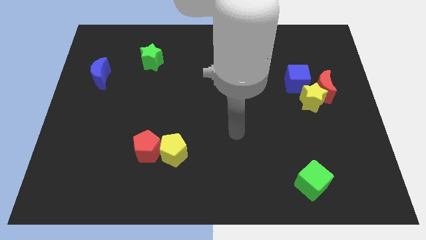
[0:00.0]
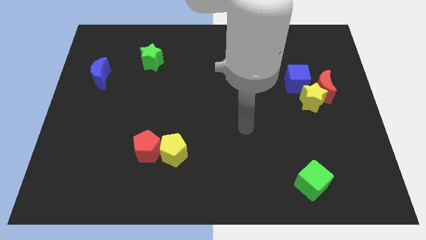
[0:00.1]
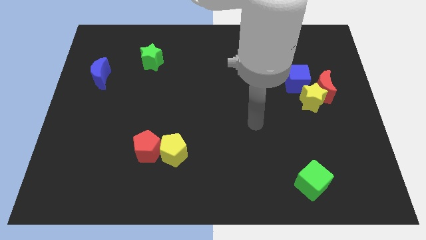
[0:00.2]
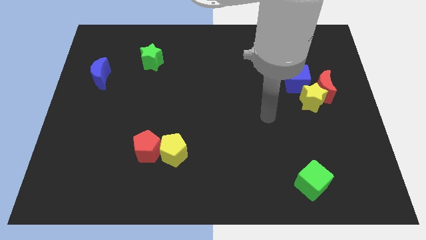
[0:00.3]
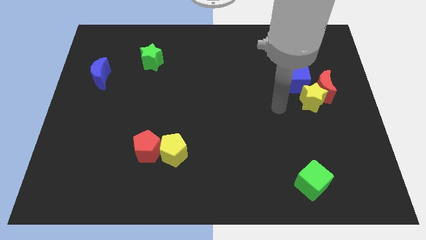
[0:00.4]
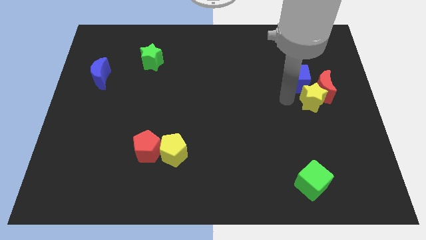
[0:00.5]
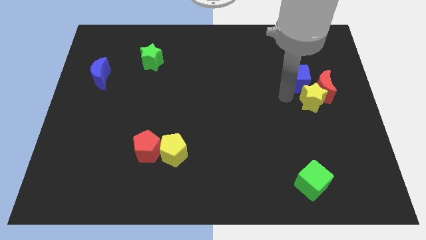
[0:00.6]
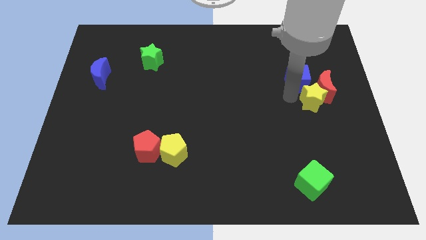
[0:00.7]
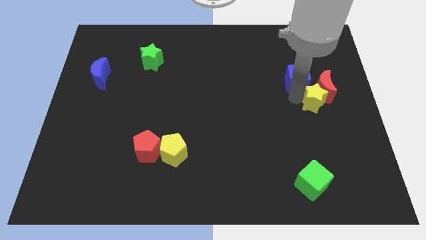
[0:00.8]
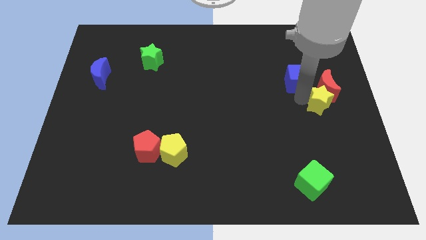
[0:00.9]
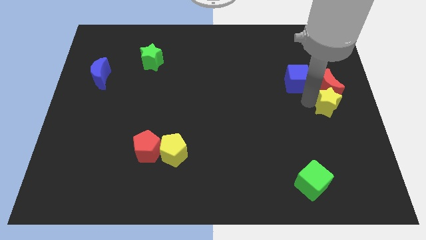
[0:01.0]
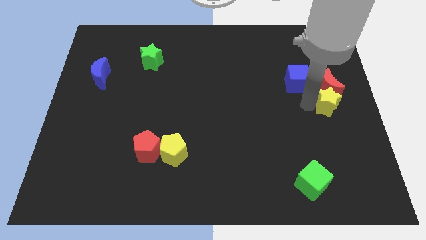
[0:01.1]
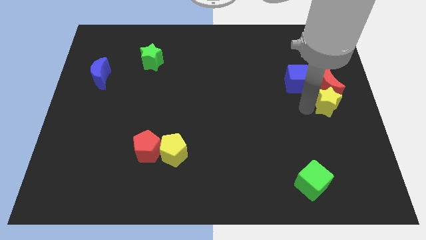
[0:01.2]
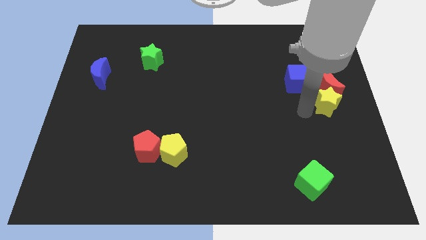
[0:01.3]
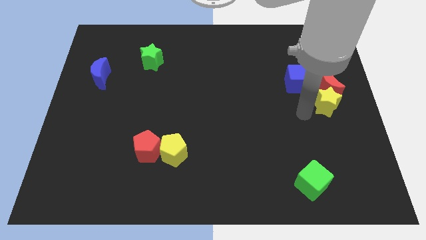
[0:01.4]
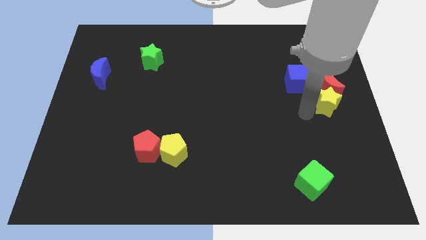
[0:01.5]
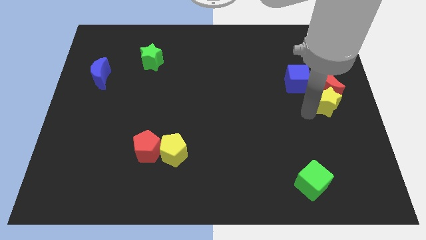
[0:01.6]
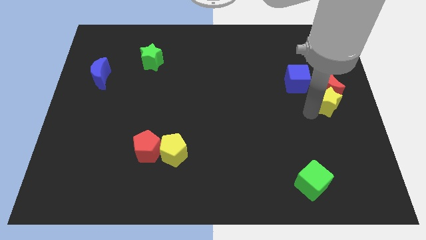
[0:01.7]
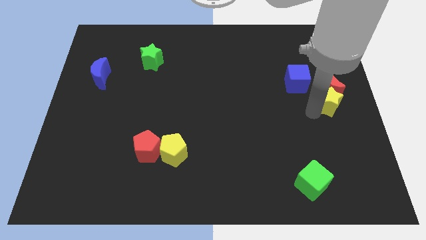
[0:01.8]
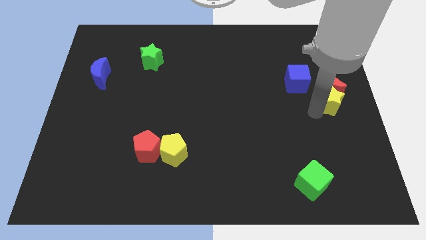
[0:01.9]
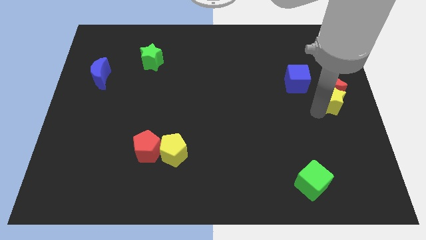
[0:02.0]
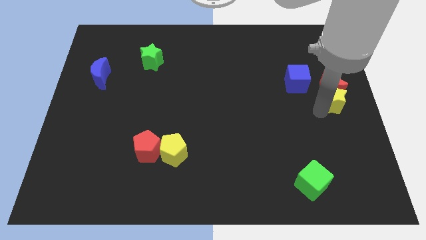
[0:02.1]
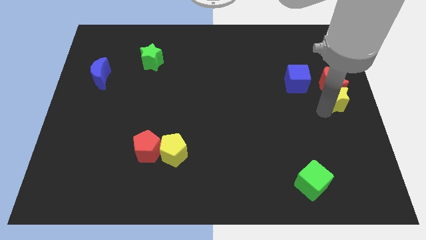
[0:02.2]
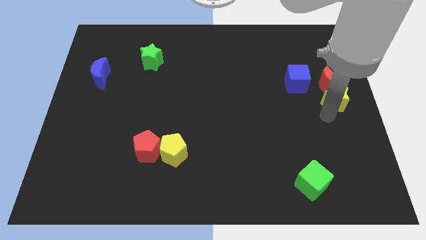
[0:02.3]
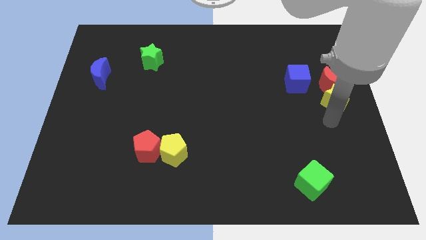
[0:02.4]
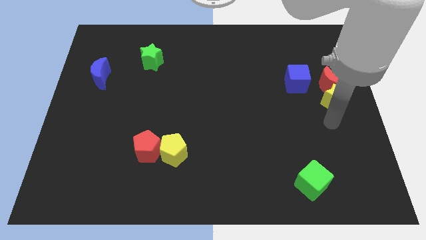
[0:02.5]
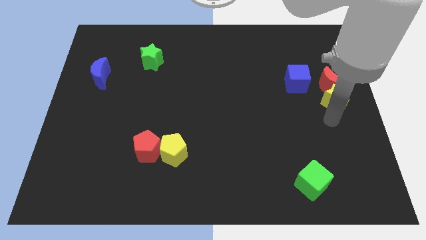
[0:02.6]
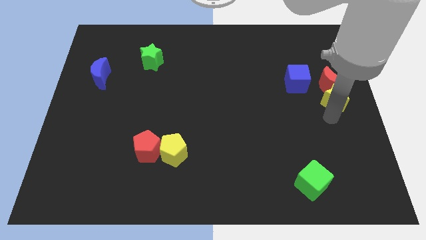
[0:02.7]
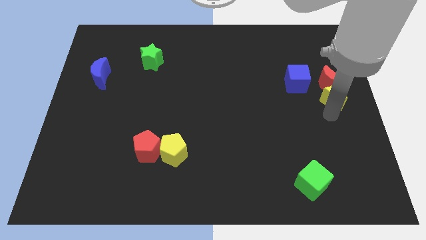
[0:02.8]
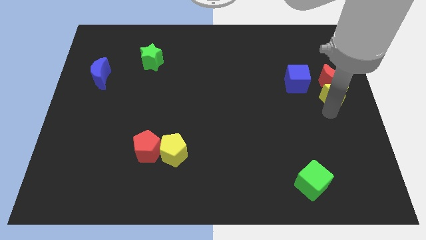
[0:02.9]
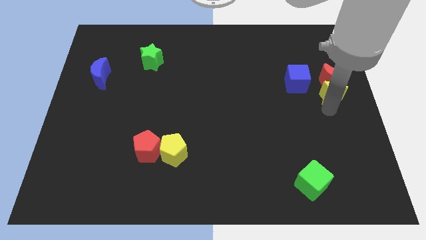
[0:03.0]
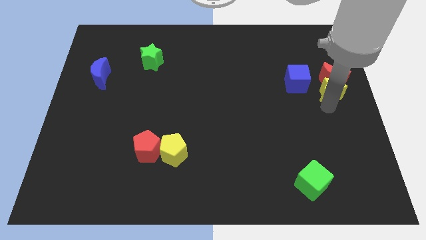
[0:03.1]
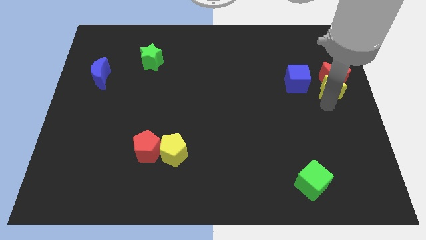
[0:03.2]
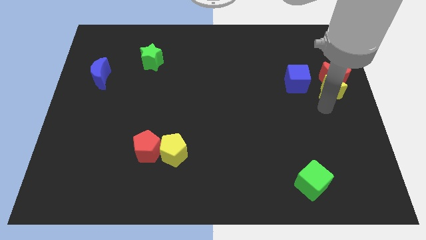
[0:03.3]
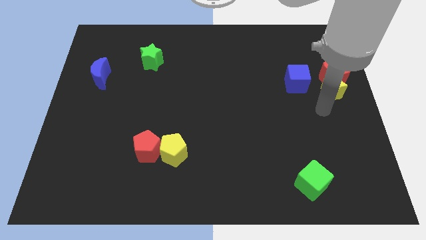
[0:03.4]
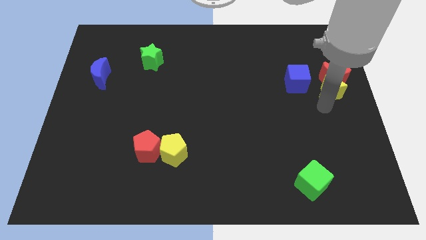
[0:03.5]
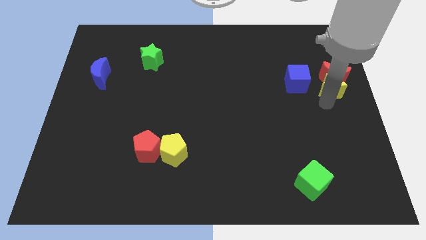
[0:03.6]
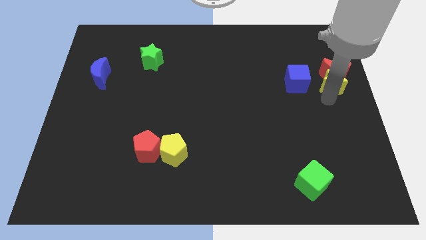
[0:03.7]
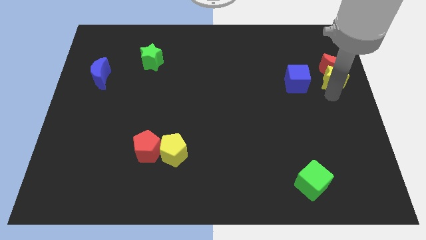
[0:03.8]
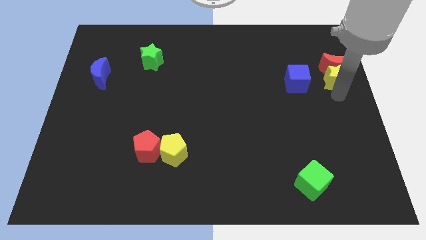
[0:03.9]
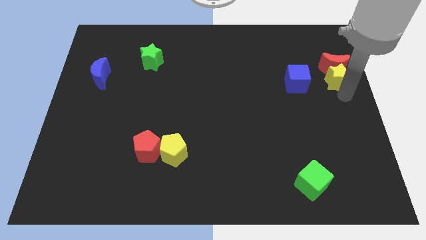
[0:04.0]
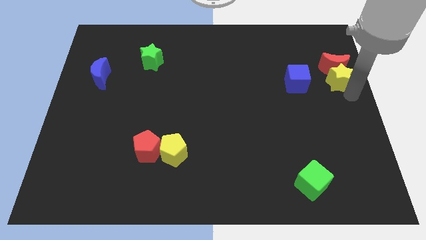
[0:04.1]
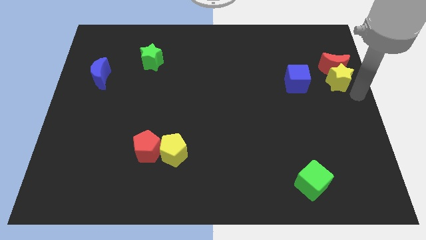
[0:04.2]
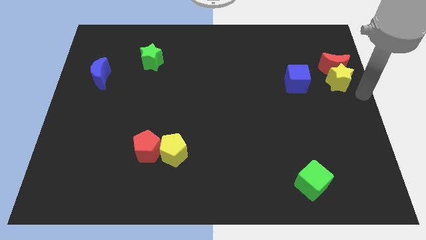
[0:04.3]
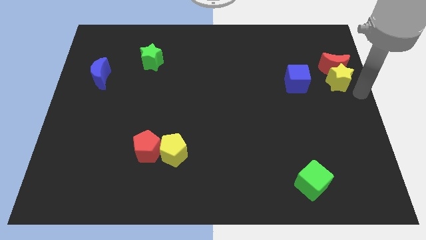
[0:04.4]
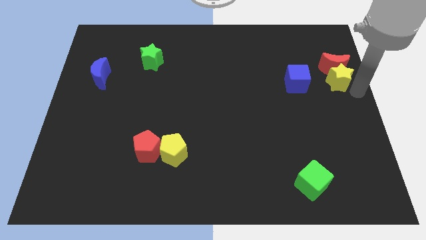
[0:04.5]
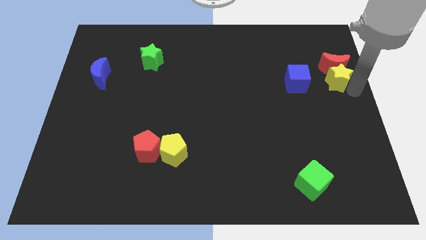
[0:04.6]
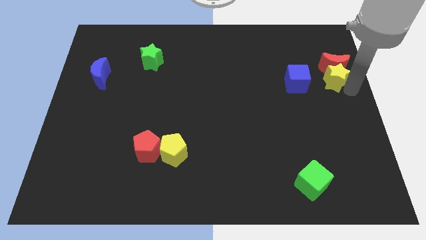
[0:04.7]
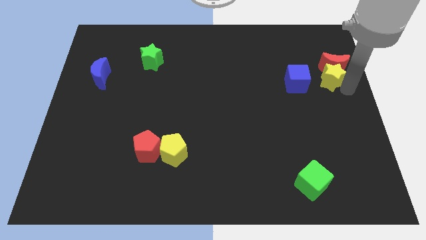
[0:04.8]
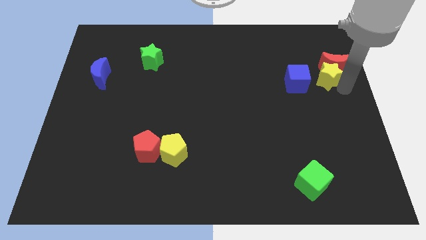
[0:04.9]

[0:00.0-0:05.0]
slide the yellow star to the top right side of the blue cube

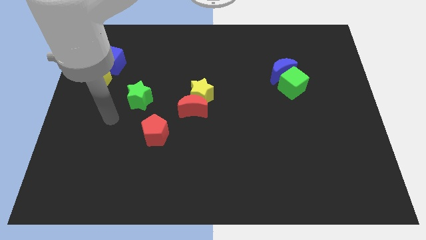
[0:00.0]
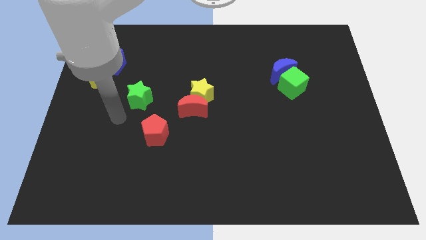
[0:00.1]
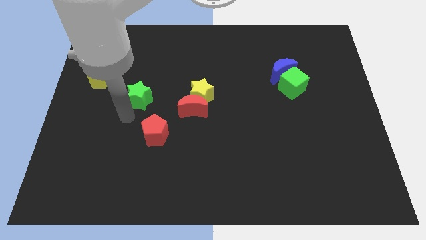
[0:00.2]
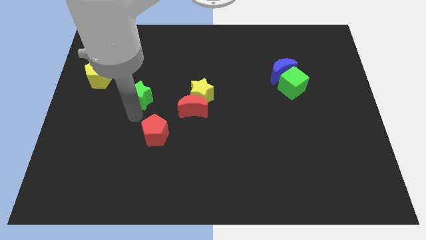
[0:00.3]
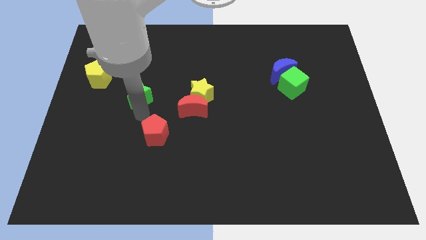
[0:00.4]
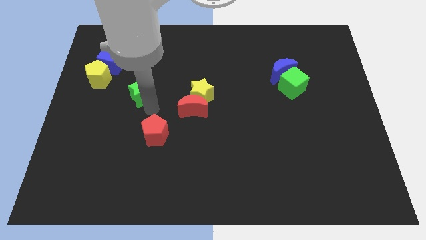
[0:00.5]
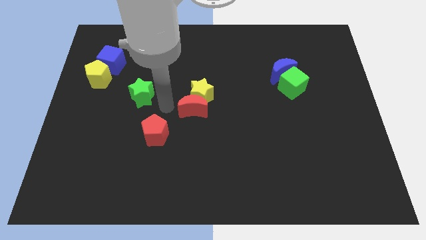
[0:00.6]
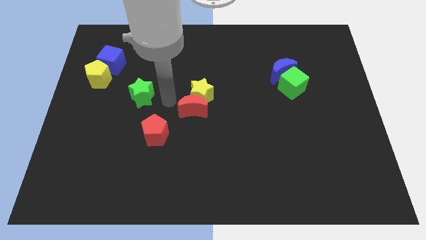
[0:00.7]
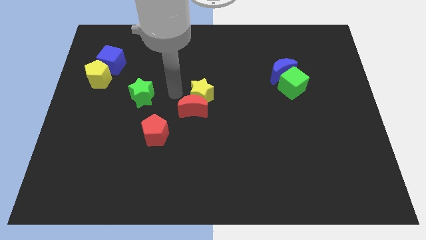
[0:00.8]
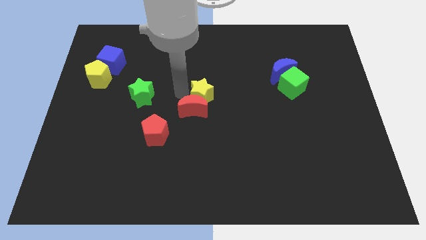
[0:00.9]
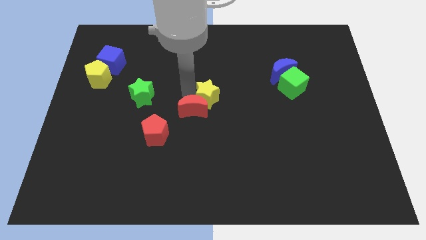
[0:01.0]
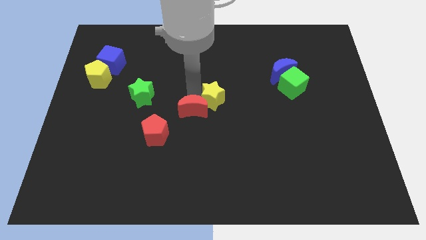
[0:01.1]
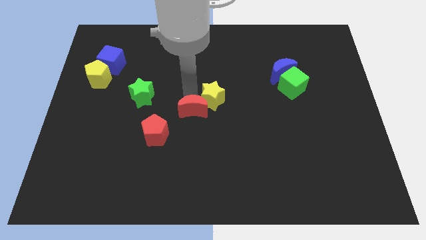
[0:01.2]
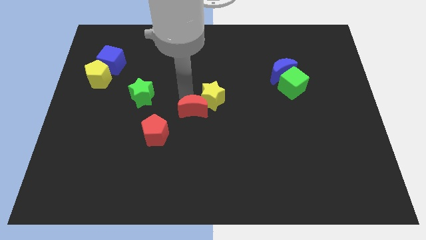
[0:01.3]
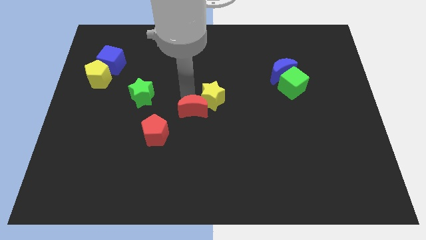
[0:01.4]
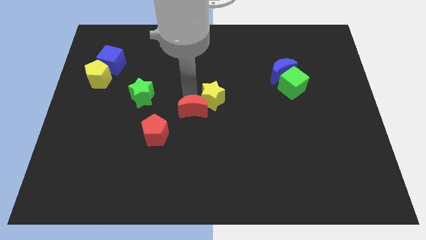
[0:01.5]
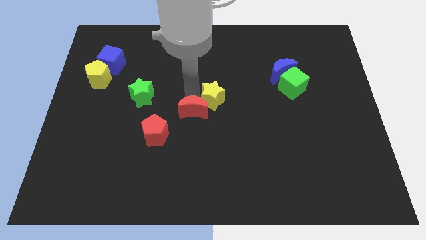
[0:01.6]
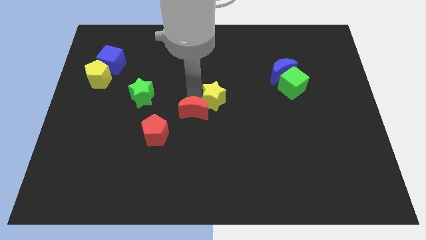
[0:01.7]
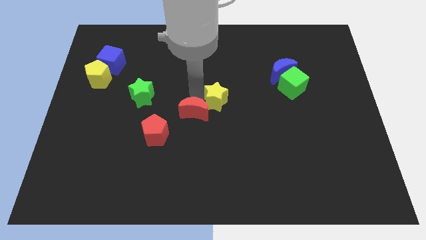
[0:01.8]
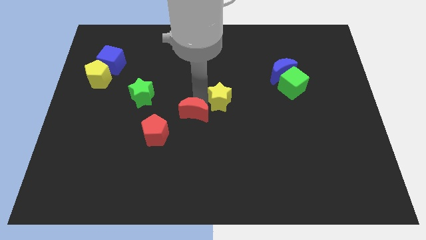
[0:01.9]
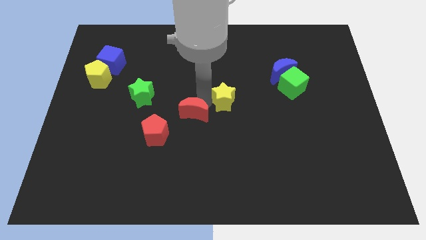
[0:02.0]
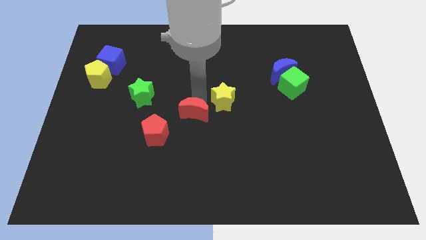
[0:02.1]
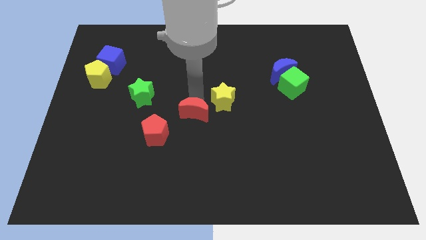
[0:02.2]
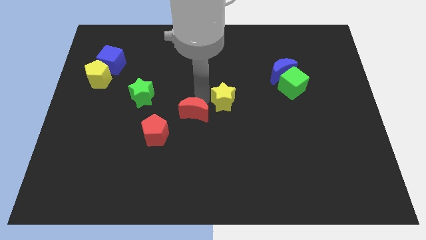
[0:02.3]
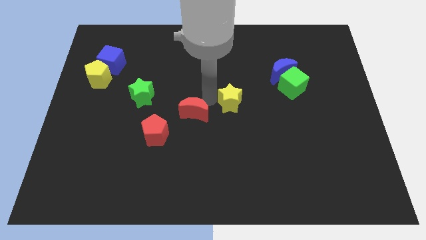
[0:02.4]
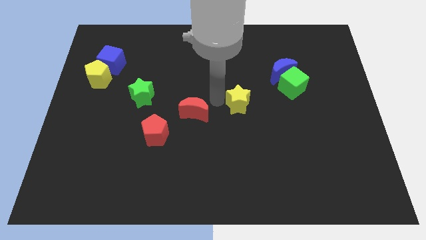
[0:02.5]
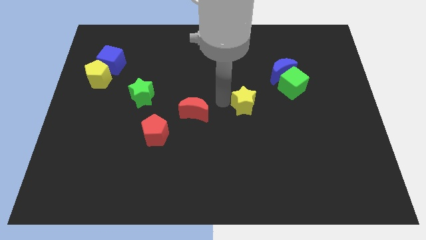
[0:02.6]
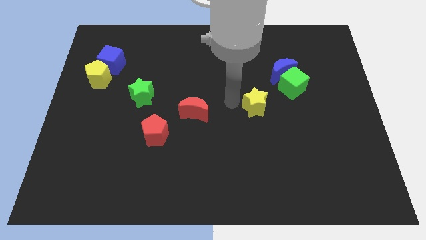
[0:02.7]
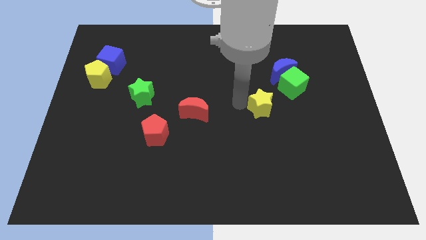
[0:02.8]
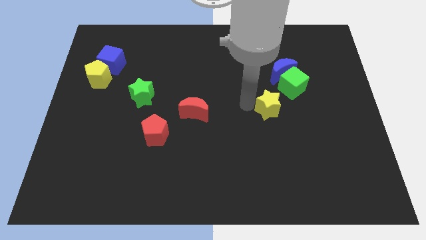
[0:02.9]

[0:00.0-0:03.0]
move the yellow star to the bottom side of the blue moon
